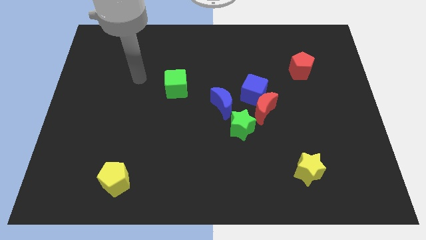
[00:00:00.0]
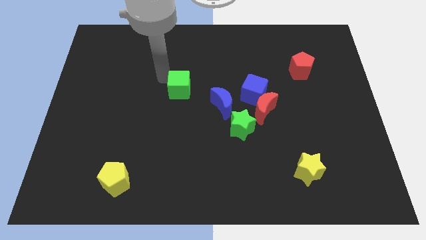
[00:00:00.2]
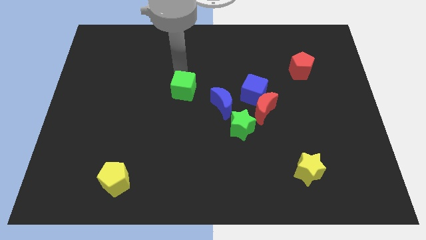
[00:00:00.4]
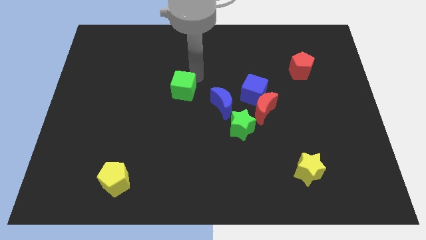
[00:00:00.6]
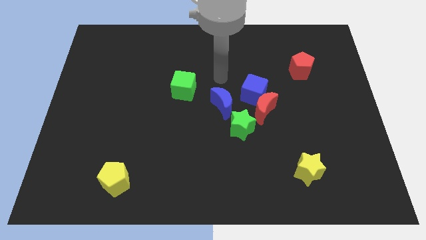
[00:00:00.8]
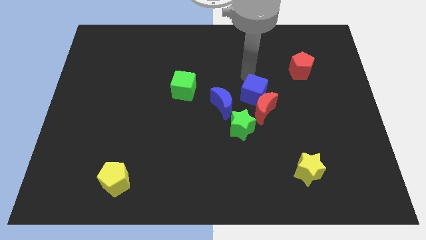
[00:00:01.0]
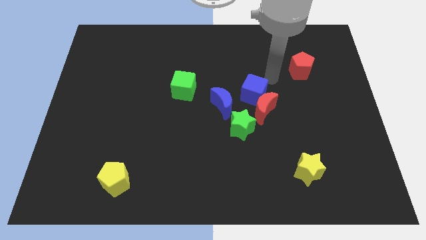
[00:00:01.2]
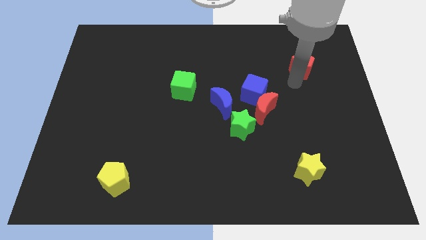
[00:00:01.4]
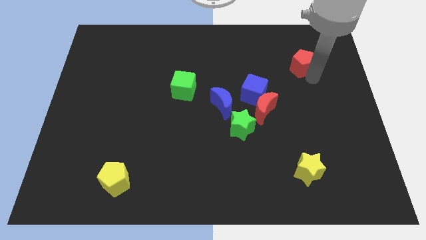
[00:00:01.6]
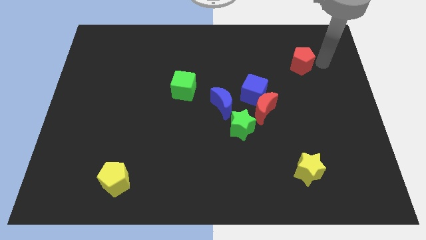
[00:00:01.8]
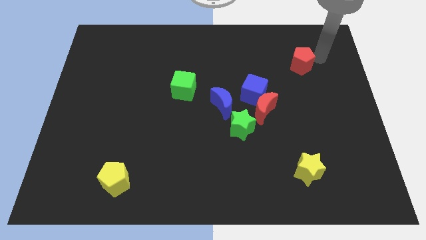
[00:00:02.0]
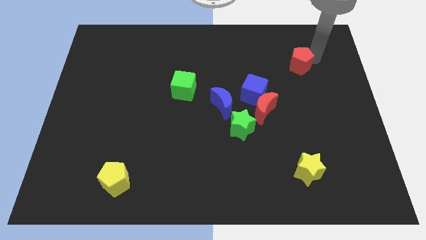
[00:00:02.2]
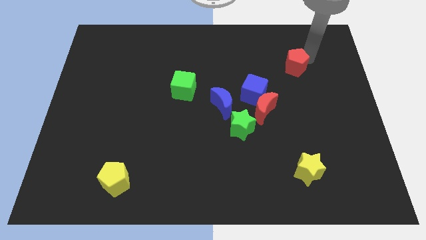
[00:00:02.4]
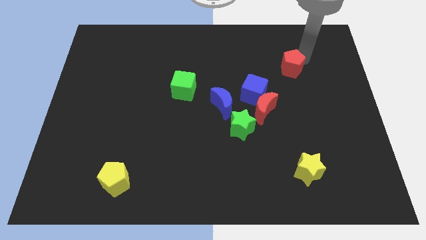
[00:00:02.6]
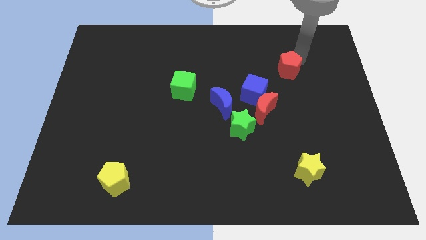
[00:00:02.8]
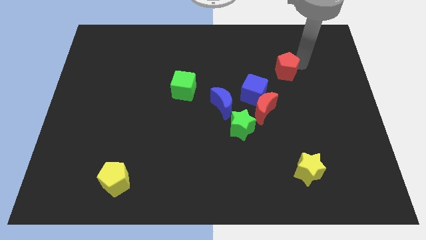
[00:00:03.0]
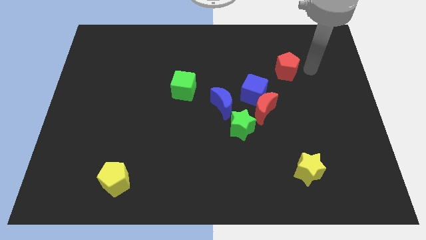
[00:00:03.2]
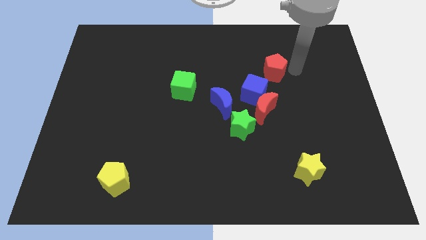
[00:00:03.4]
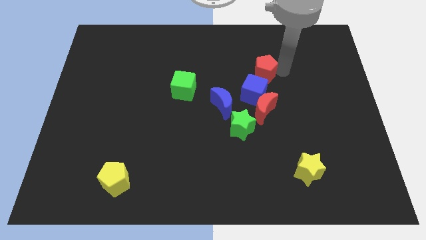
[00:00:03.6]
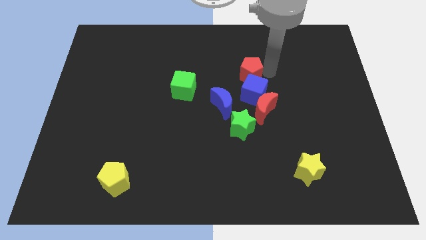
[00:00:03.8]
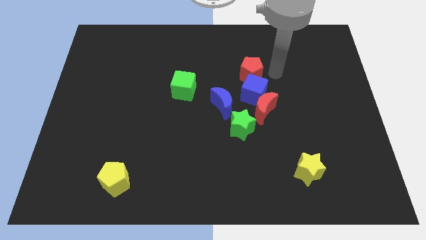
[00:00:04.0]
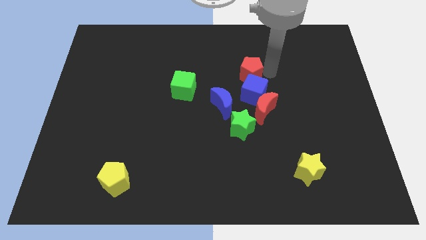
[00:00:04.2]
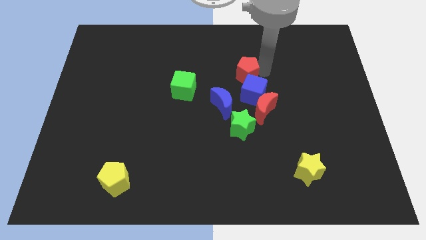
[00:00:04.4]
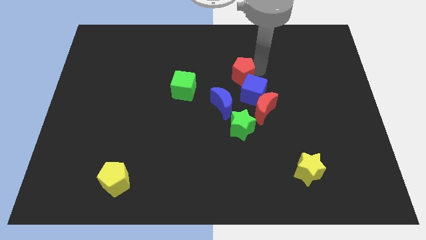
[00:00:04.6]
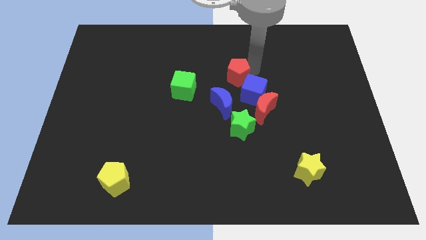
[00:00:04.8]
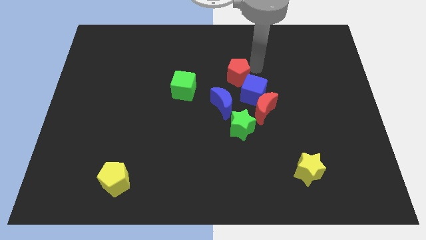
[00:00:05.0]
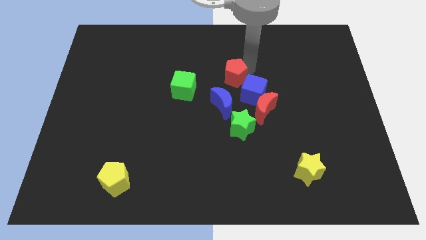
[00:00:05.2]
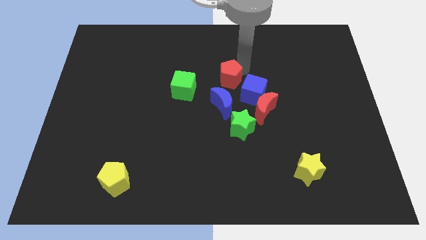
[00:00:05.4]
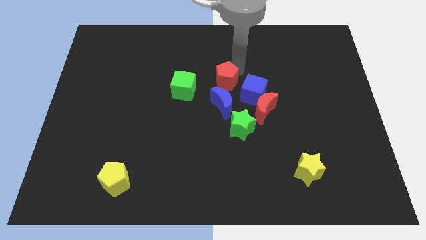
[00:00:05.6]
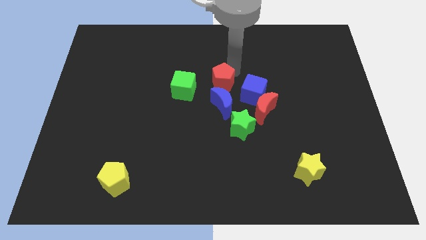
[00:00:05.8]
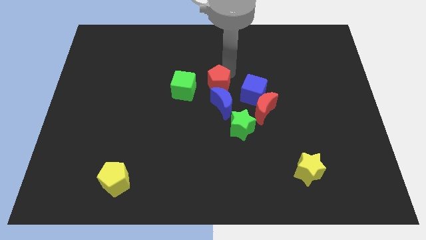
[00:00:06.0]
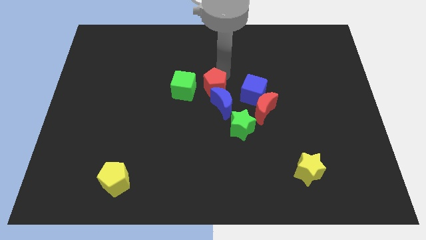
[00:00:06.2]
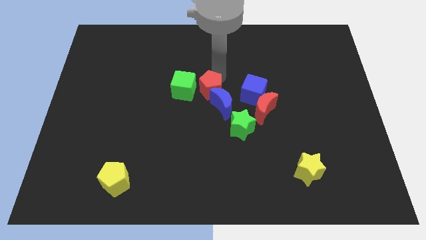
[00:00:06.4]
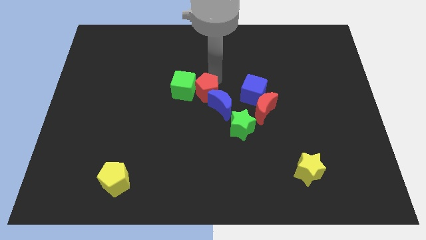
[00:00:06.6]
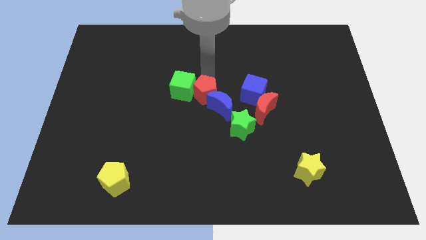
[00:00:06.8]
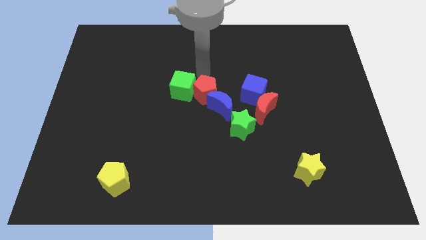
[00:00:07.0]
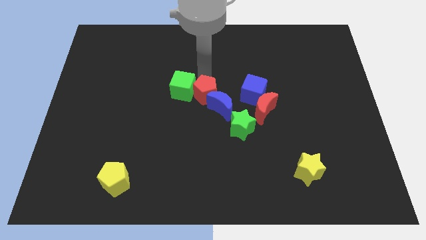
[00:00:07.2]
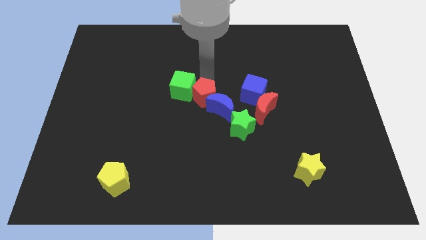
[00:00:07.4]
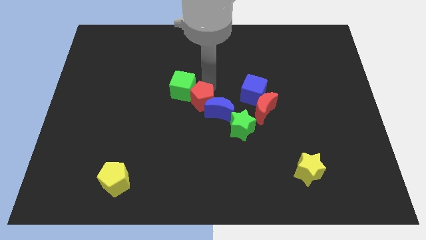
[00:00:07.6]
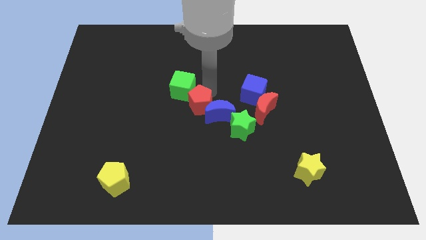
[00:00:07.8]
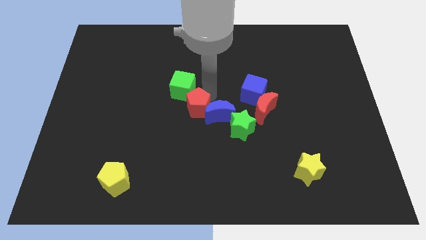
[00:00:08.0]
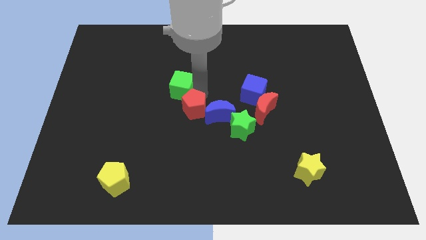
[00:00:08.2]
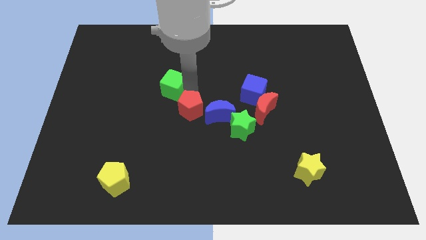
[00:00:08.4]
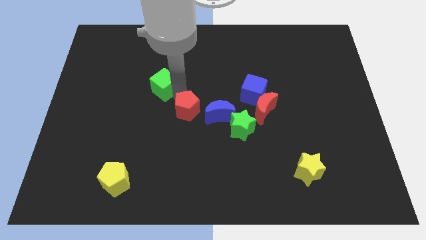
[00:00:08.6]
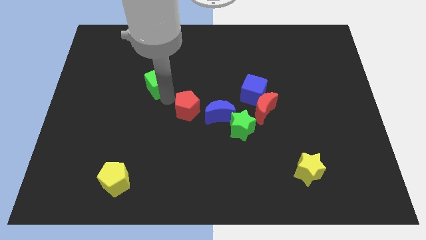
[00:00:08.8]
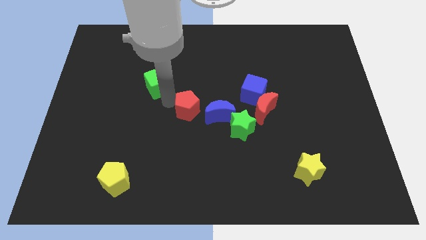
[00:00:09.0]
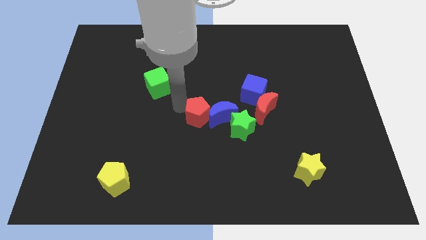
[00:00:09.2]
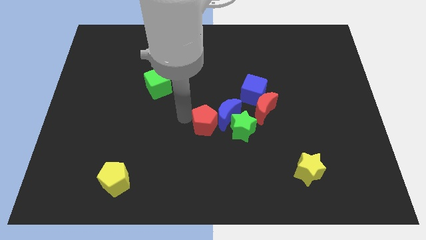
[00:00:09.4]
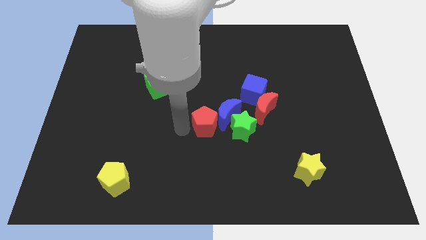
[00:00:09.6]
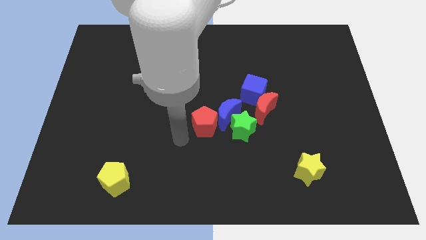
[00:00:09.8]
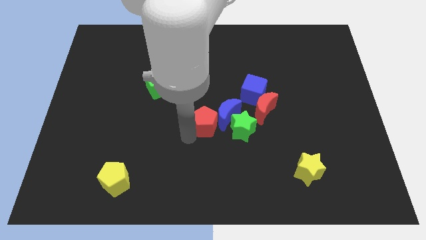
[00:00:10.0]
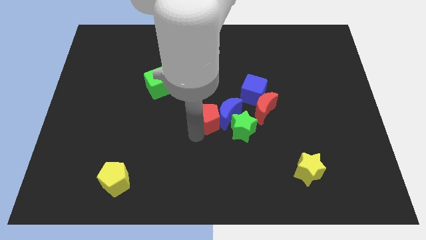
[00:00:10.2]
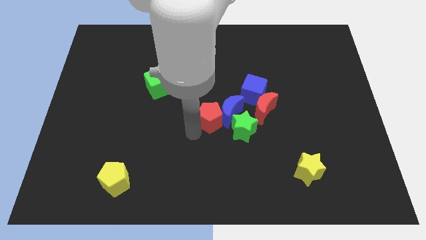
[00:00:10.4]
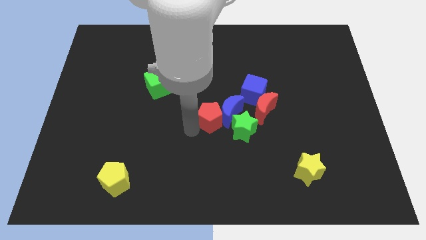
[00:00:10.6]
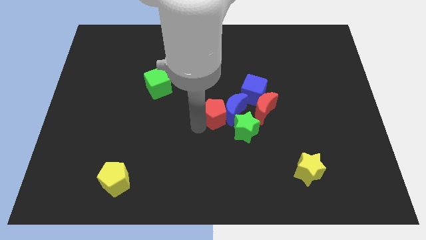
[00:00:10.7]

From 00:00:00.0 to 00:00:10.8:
move the red pentagon to the bottom left of the blue cube

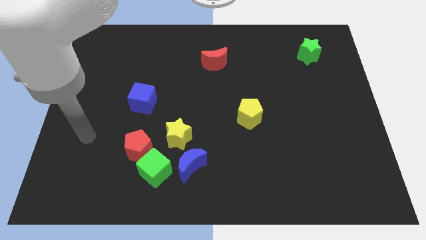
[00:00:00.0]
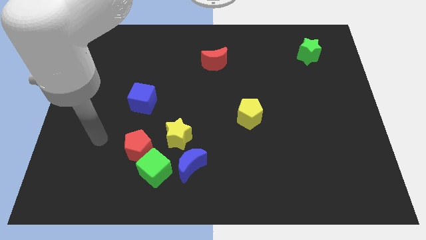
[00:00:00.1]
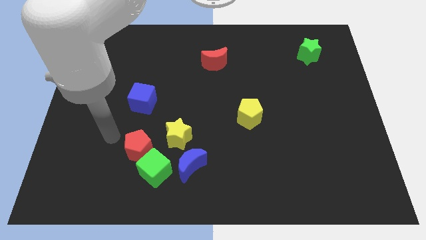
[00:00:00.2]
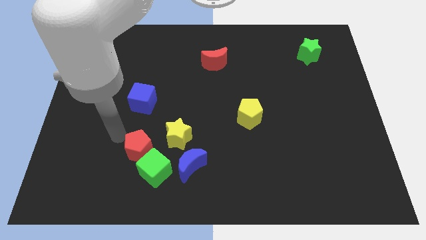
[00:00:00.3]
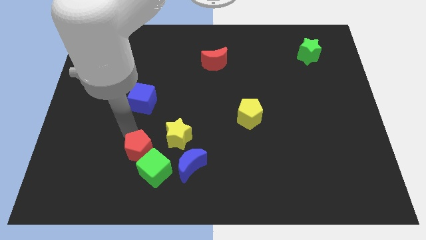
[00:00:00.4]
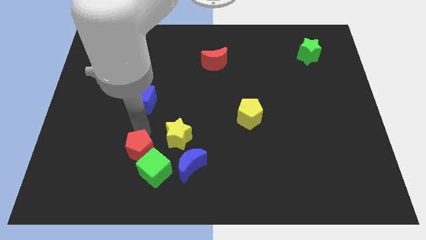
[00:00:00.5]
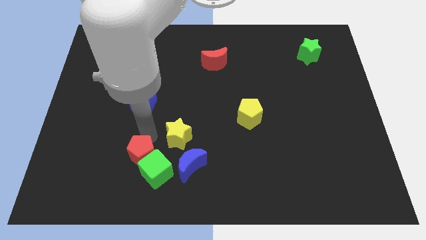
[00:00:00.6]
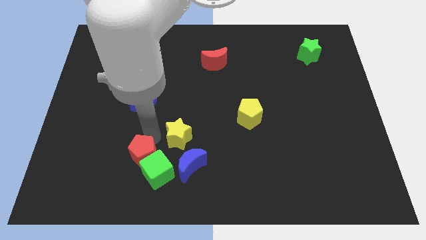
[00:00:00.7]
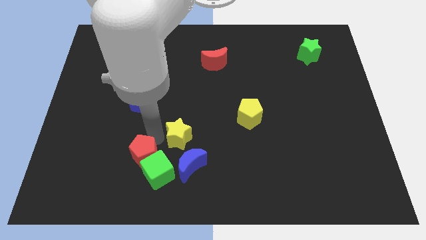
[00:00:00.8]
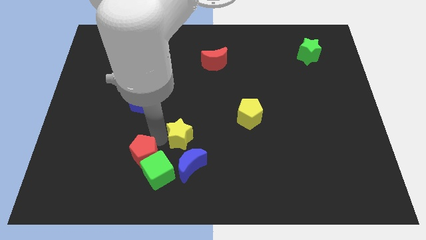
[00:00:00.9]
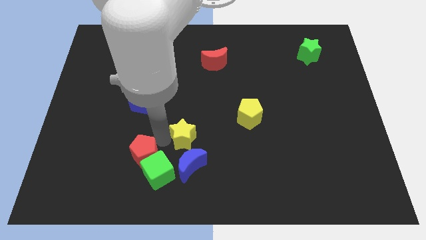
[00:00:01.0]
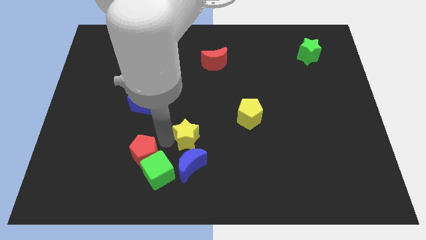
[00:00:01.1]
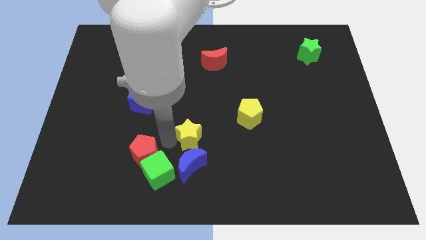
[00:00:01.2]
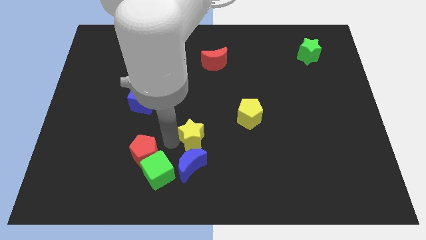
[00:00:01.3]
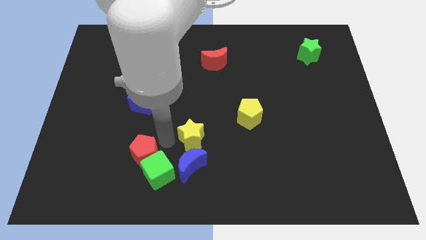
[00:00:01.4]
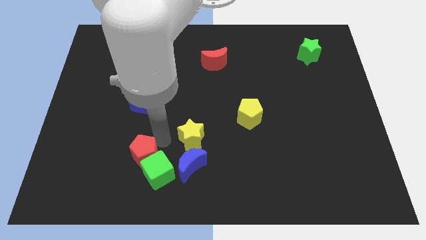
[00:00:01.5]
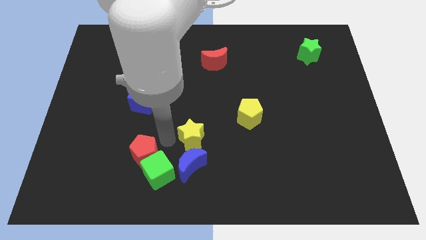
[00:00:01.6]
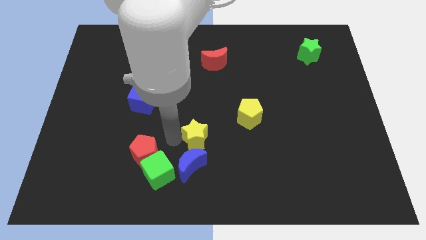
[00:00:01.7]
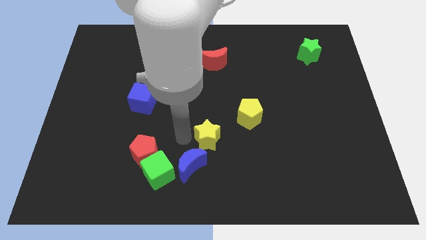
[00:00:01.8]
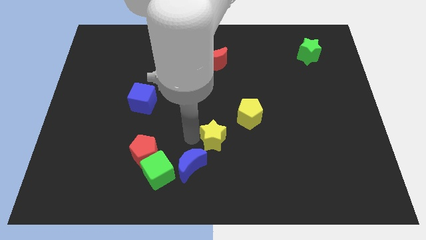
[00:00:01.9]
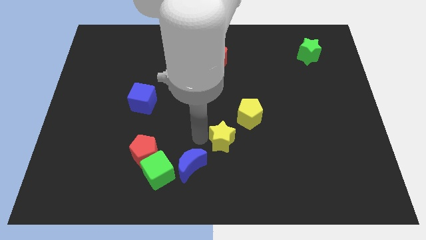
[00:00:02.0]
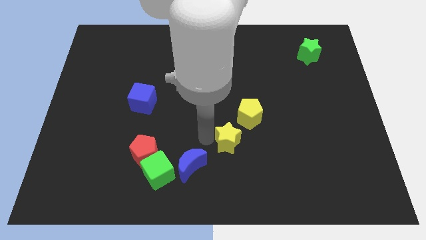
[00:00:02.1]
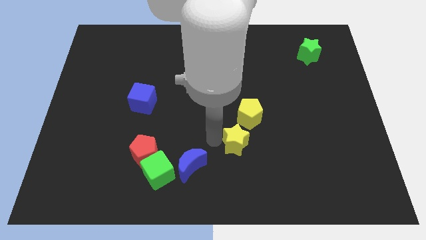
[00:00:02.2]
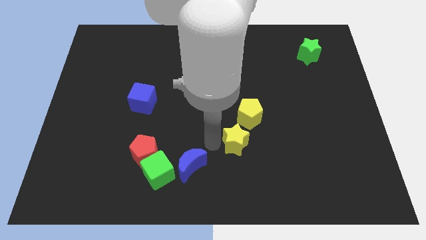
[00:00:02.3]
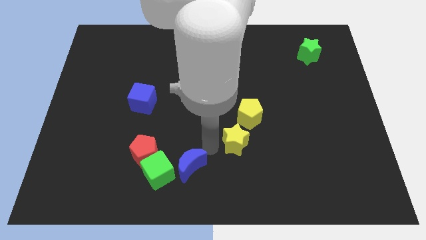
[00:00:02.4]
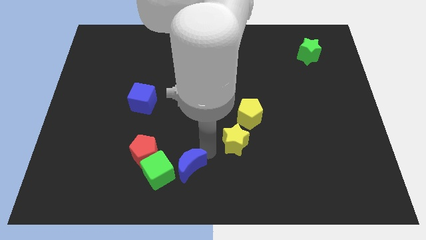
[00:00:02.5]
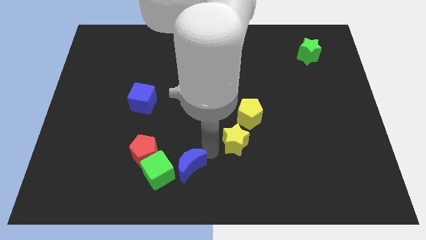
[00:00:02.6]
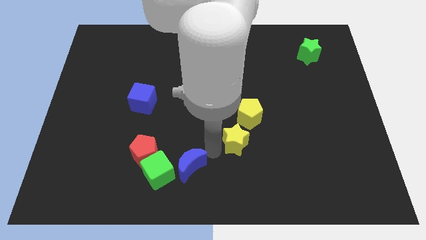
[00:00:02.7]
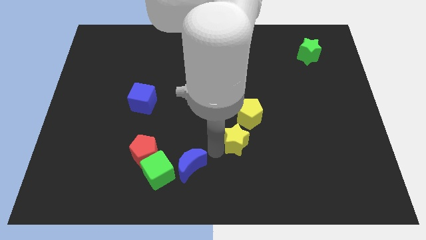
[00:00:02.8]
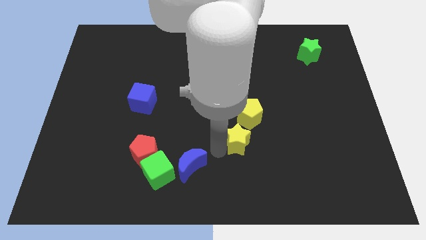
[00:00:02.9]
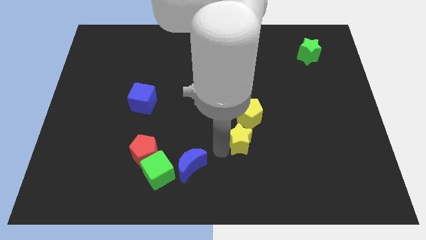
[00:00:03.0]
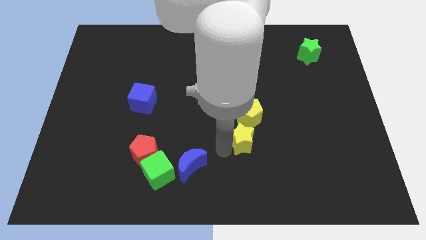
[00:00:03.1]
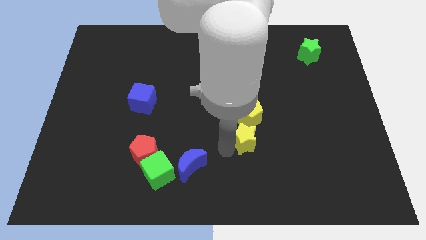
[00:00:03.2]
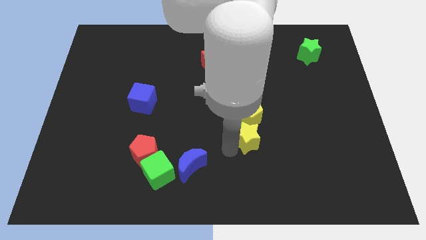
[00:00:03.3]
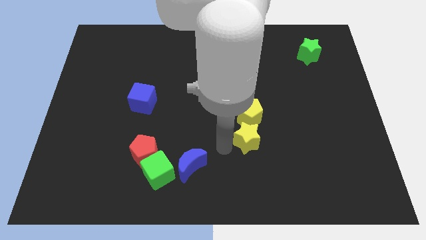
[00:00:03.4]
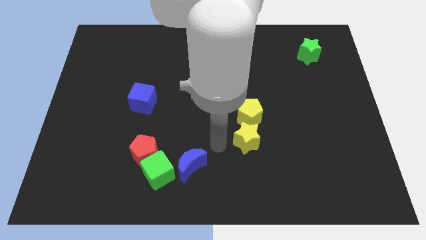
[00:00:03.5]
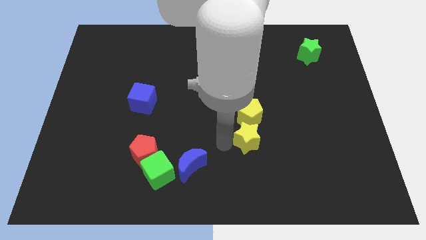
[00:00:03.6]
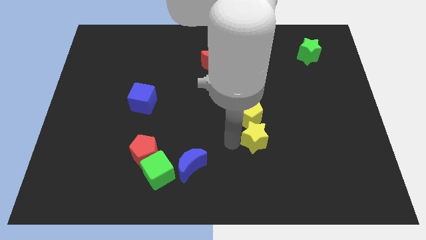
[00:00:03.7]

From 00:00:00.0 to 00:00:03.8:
move the yellow star to the bottom right of the yellow pentagon
